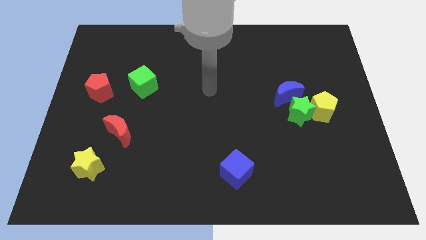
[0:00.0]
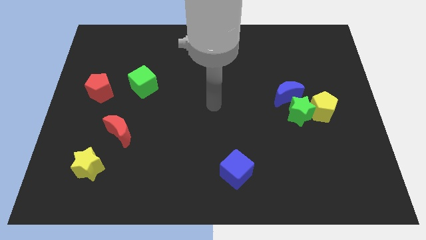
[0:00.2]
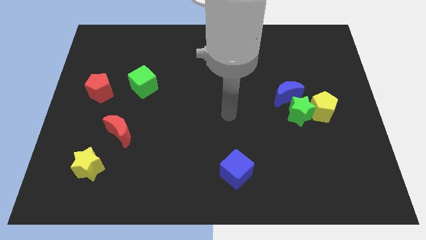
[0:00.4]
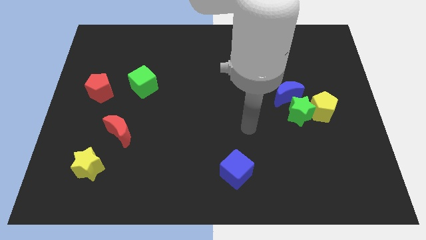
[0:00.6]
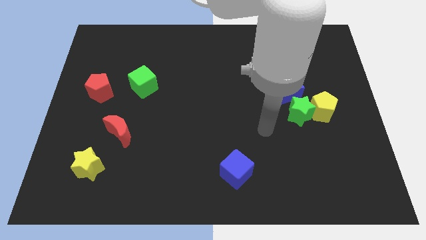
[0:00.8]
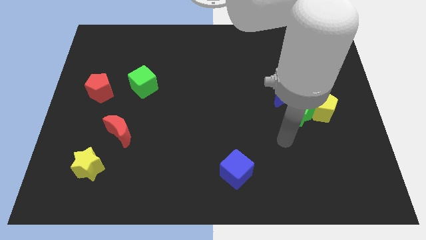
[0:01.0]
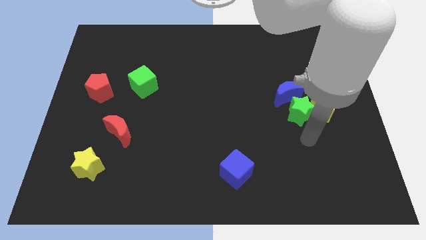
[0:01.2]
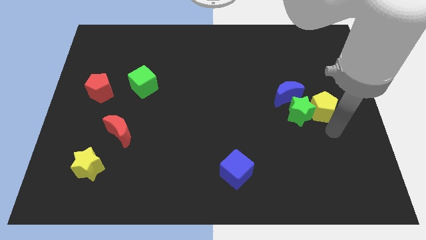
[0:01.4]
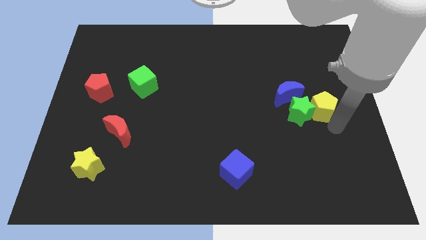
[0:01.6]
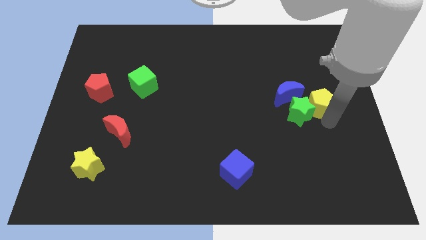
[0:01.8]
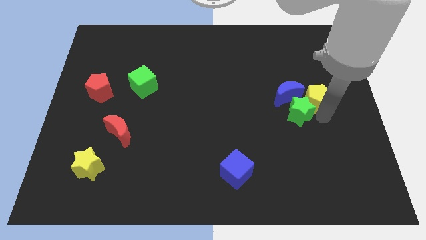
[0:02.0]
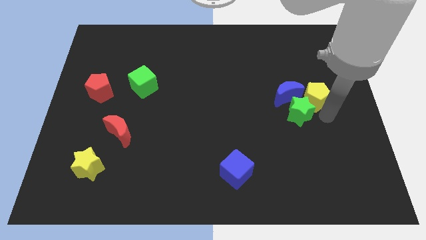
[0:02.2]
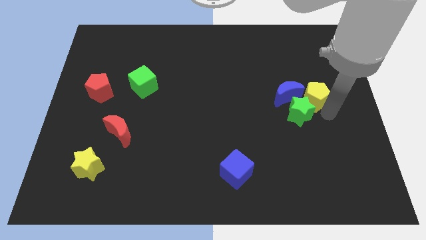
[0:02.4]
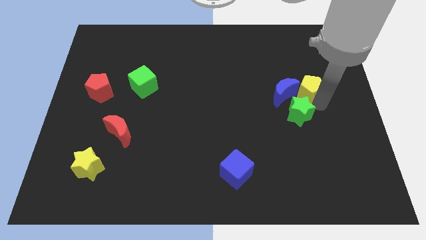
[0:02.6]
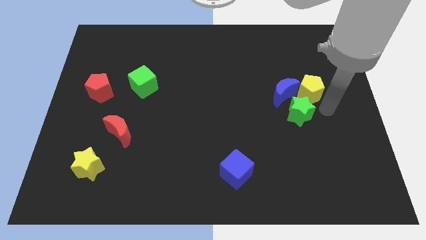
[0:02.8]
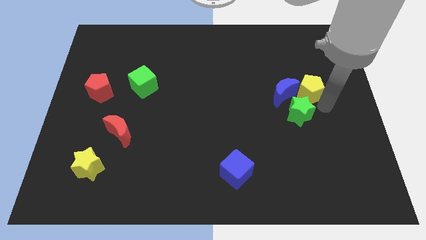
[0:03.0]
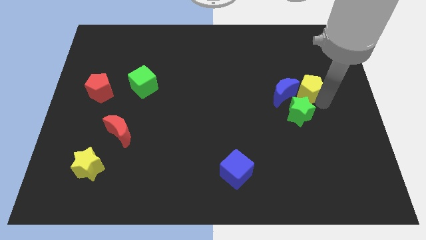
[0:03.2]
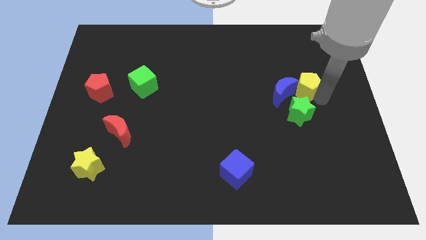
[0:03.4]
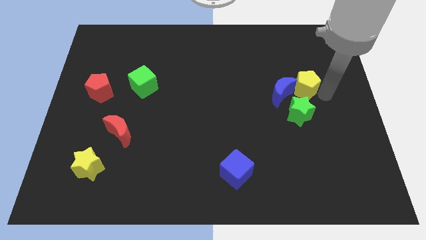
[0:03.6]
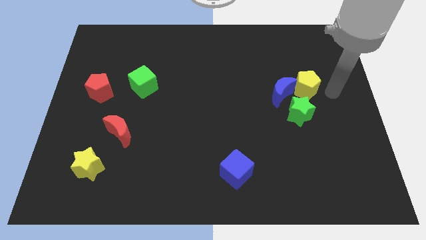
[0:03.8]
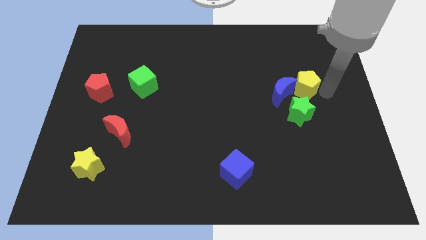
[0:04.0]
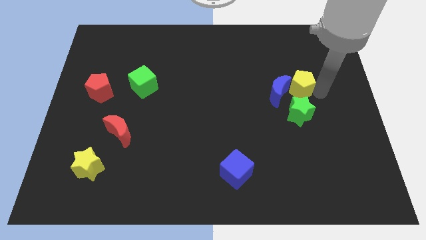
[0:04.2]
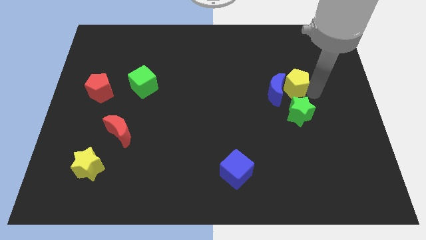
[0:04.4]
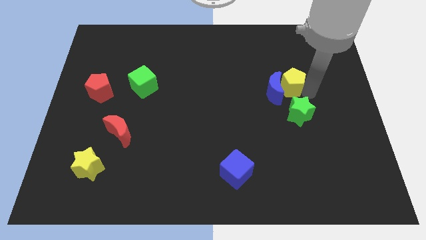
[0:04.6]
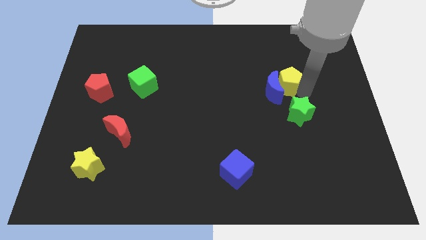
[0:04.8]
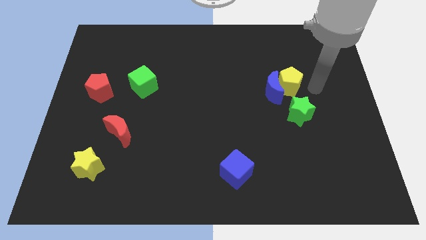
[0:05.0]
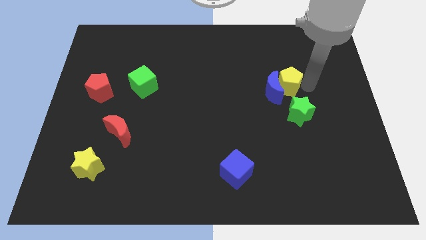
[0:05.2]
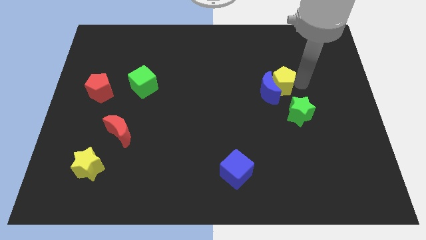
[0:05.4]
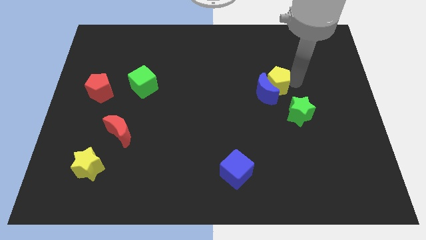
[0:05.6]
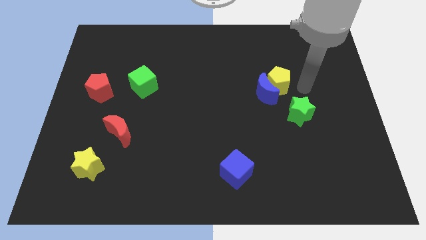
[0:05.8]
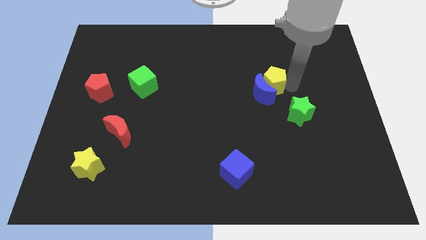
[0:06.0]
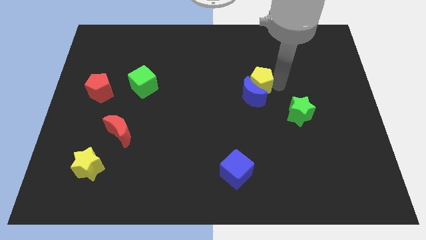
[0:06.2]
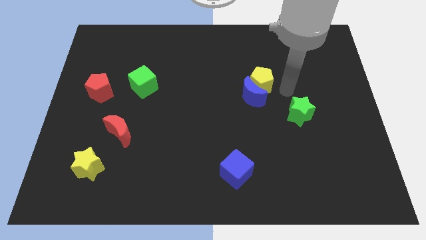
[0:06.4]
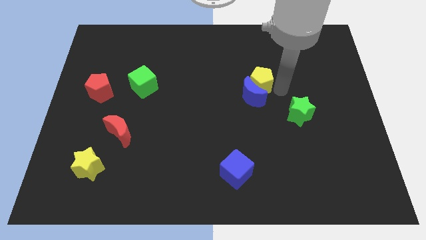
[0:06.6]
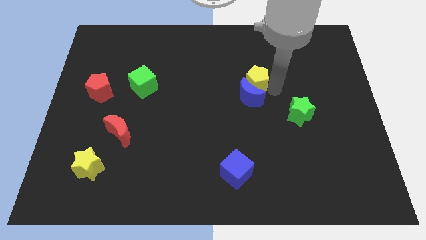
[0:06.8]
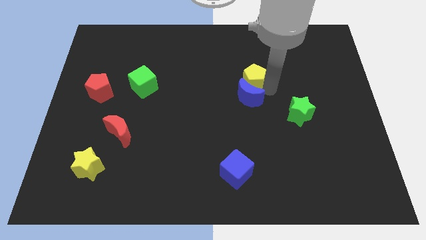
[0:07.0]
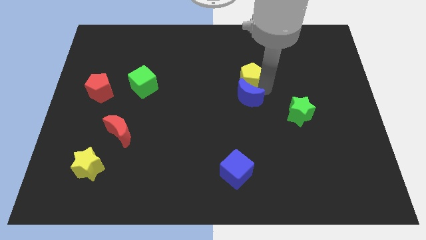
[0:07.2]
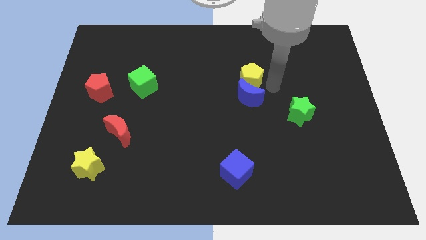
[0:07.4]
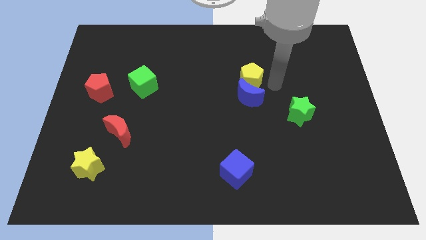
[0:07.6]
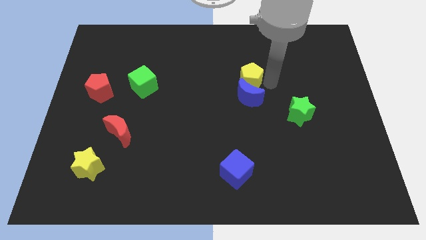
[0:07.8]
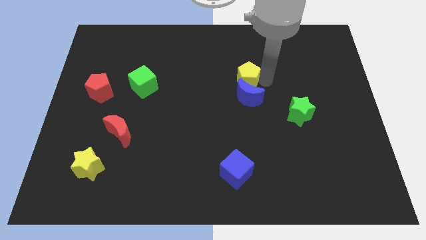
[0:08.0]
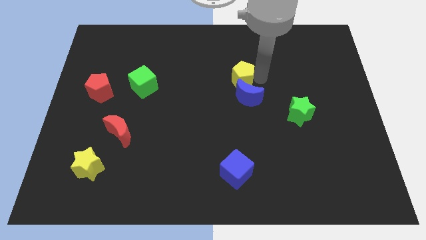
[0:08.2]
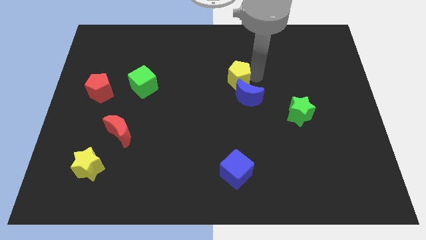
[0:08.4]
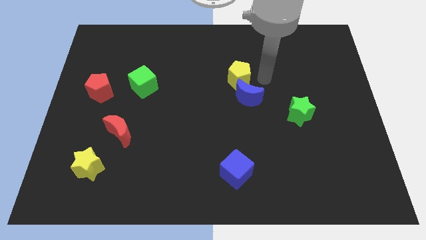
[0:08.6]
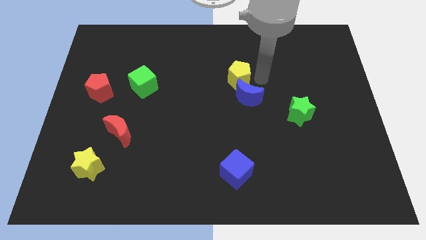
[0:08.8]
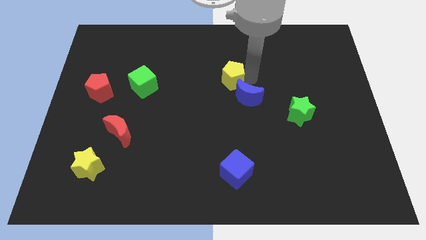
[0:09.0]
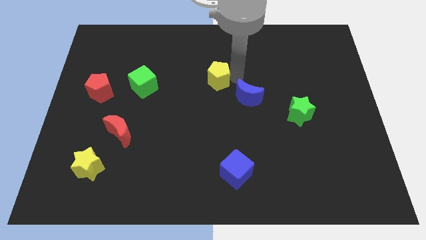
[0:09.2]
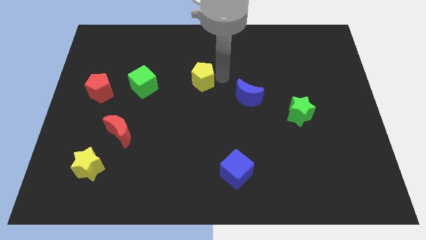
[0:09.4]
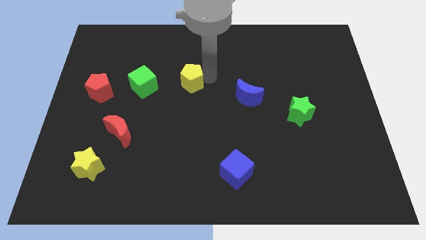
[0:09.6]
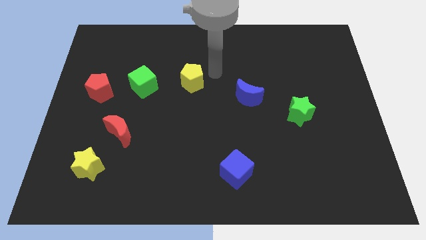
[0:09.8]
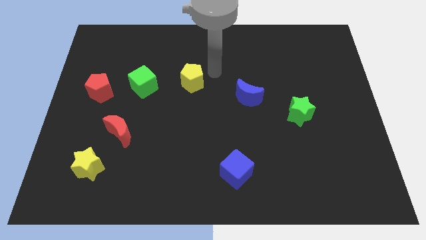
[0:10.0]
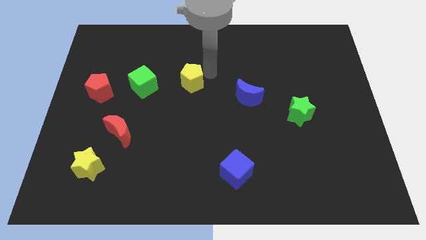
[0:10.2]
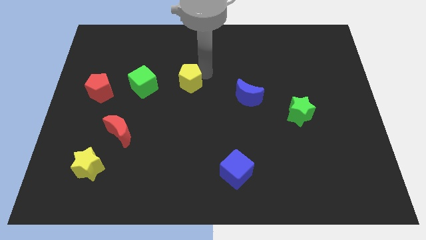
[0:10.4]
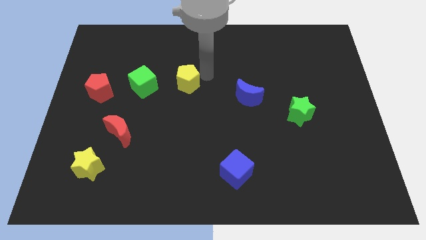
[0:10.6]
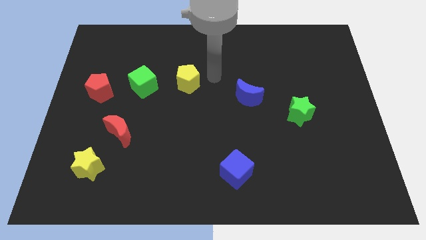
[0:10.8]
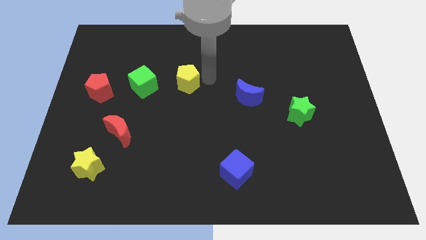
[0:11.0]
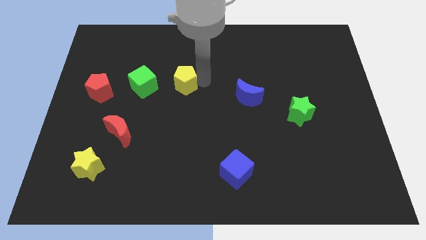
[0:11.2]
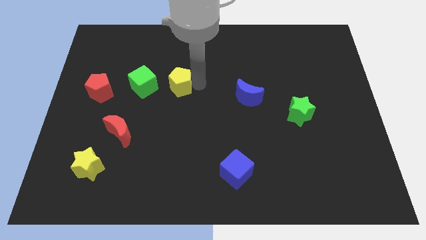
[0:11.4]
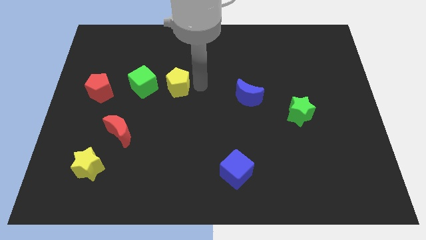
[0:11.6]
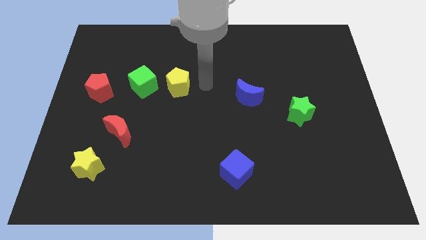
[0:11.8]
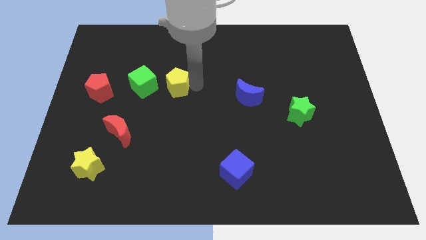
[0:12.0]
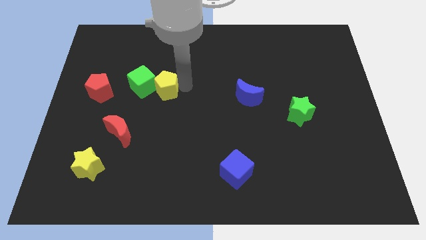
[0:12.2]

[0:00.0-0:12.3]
move the yellow pentagon towards the green cube

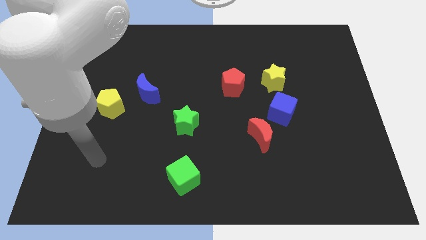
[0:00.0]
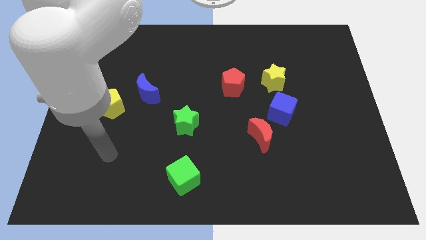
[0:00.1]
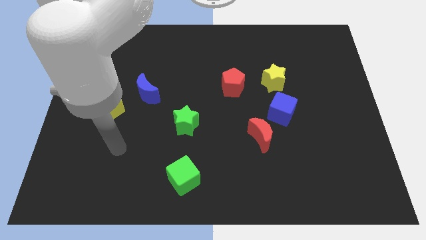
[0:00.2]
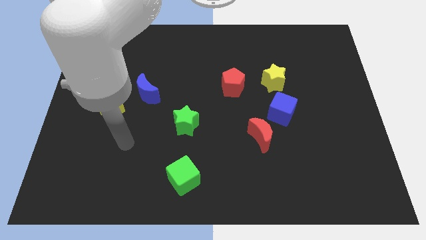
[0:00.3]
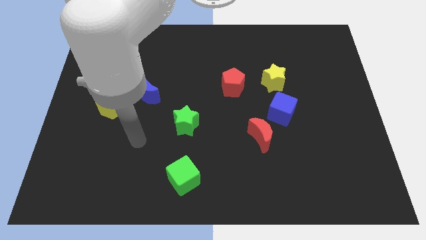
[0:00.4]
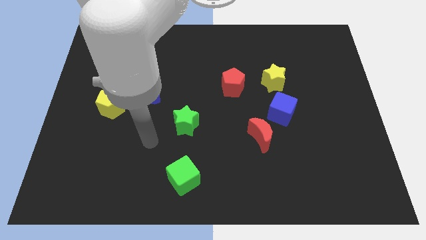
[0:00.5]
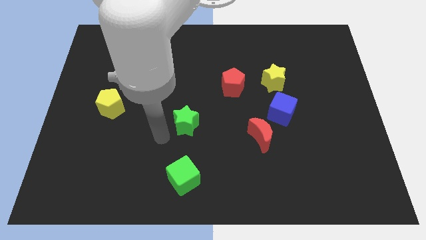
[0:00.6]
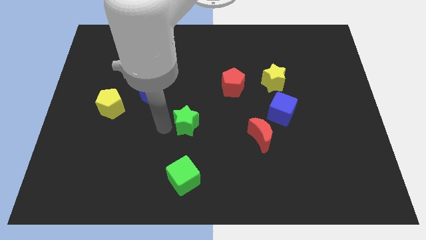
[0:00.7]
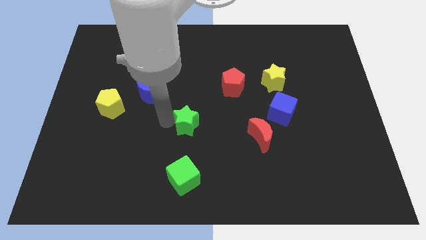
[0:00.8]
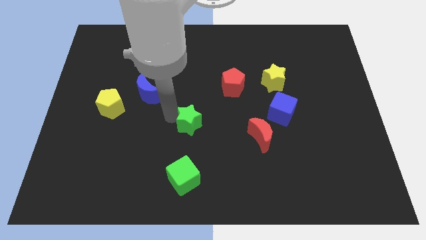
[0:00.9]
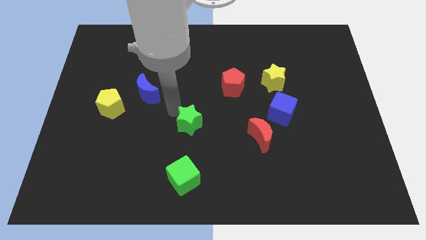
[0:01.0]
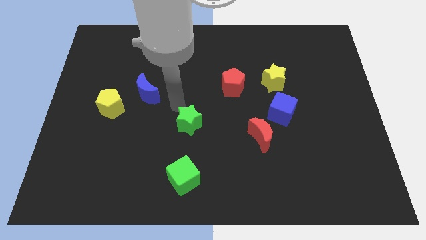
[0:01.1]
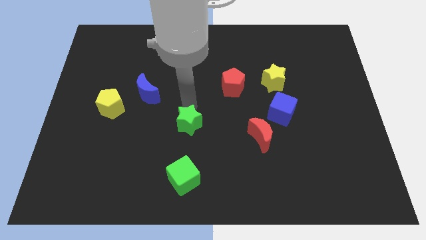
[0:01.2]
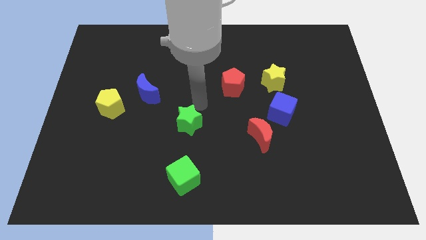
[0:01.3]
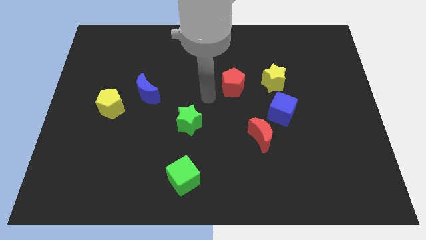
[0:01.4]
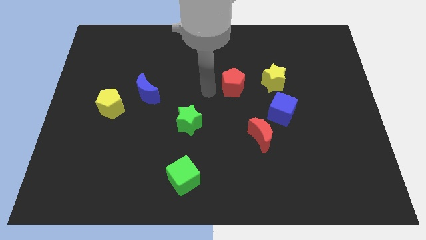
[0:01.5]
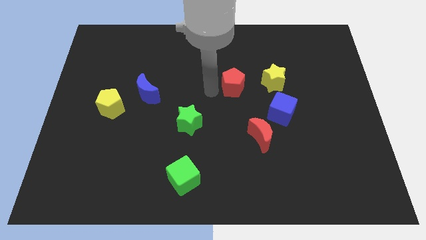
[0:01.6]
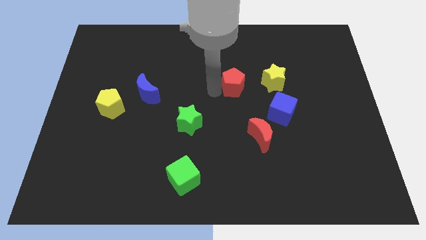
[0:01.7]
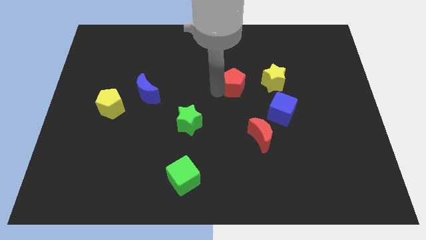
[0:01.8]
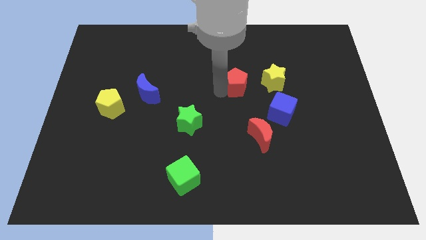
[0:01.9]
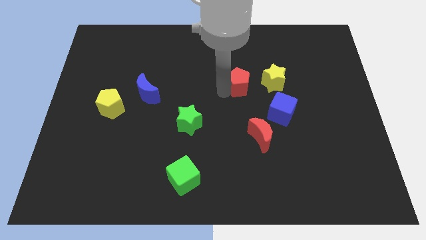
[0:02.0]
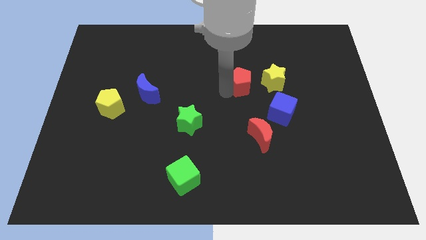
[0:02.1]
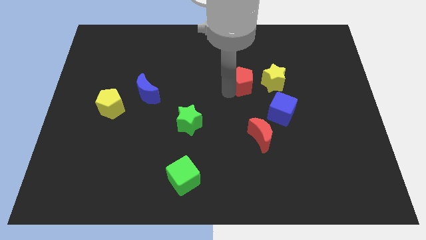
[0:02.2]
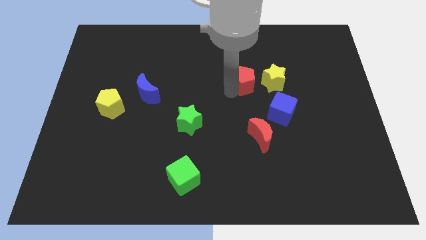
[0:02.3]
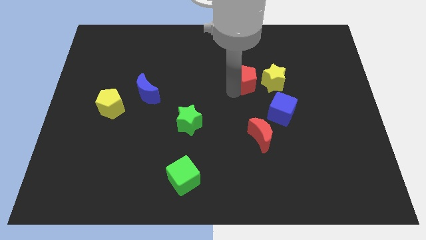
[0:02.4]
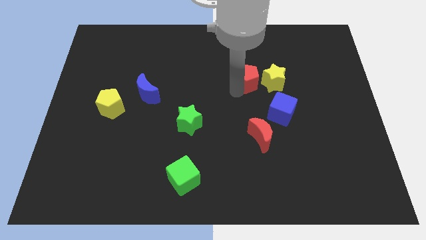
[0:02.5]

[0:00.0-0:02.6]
put the red pentagon towards the yellow star
